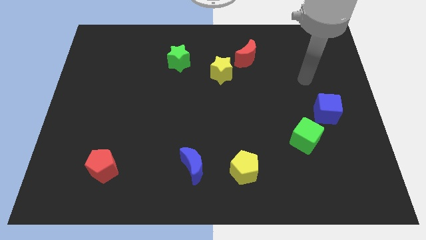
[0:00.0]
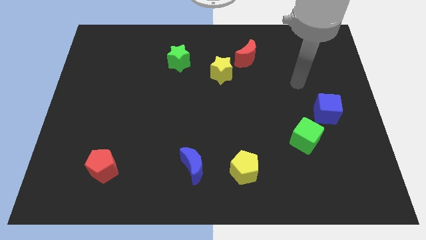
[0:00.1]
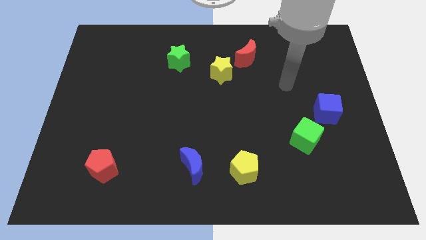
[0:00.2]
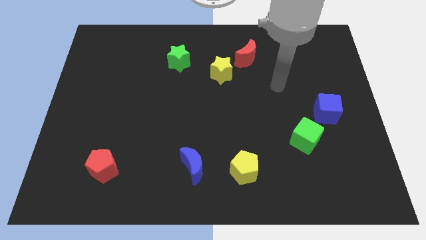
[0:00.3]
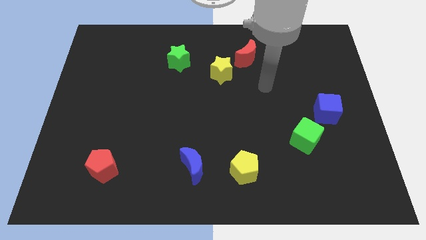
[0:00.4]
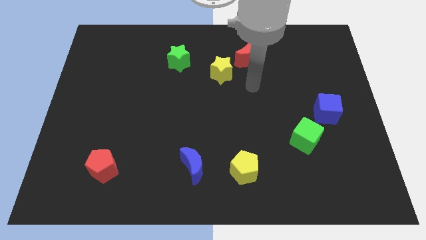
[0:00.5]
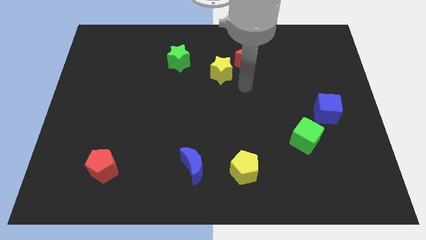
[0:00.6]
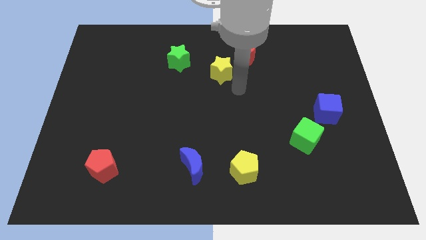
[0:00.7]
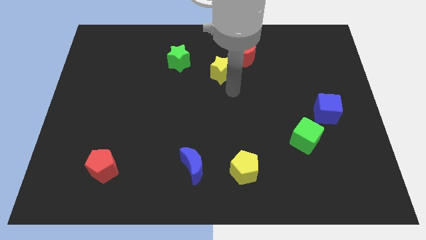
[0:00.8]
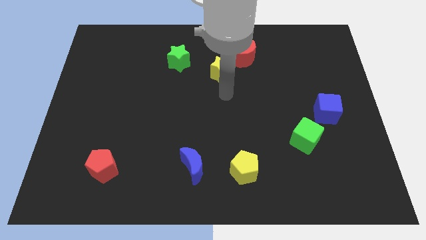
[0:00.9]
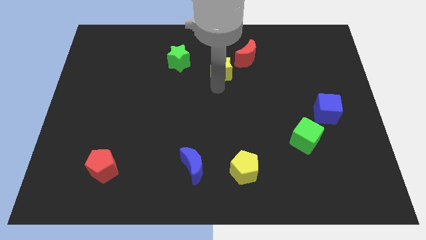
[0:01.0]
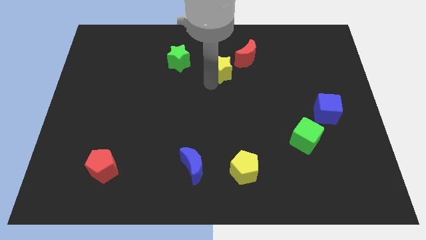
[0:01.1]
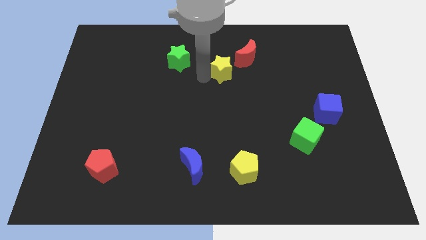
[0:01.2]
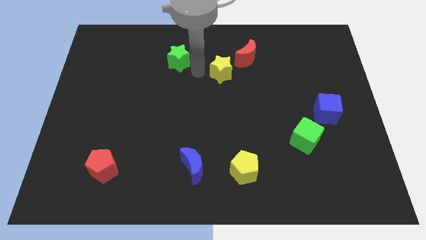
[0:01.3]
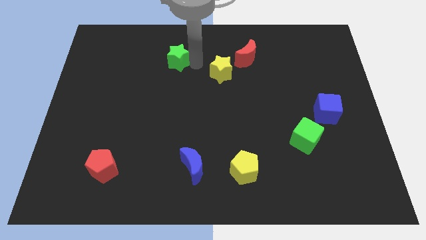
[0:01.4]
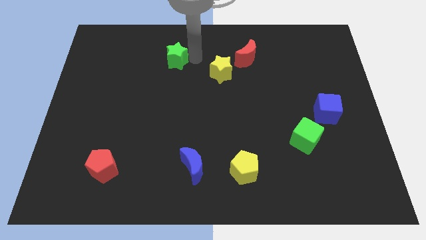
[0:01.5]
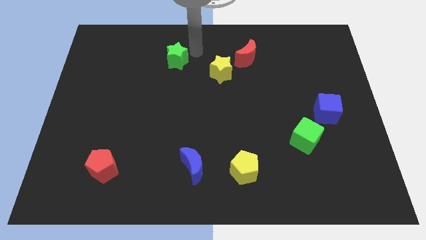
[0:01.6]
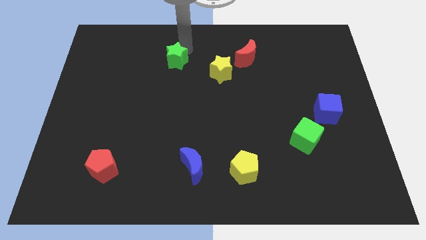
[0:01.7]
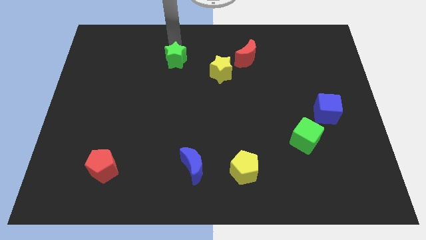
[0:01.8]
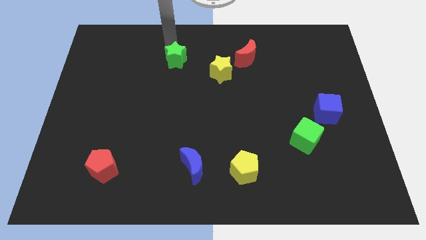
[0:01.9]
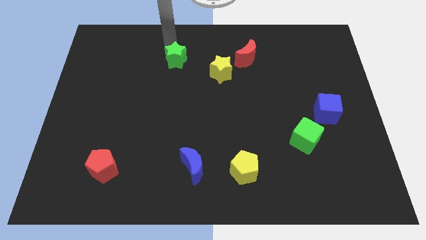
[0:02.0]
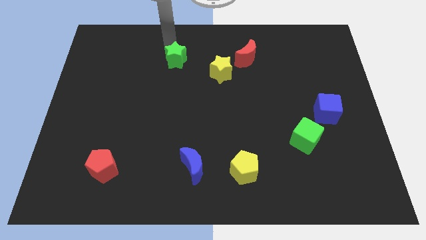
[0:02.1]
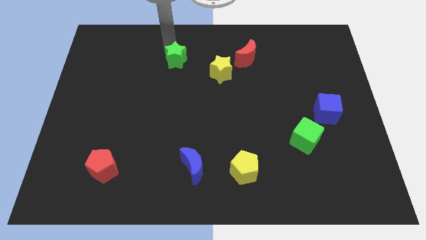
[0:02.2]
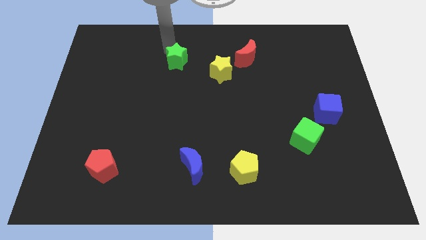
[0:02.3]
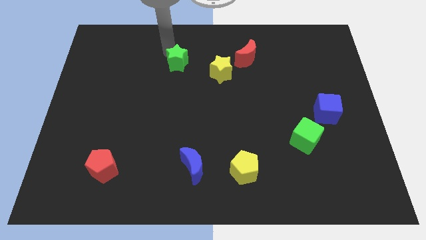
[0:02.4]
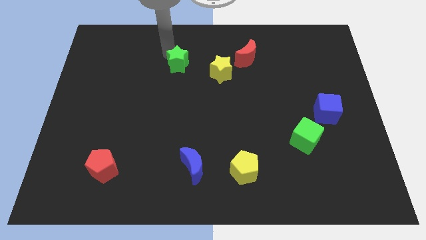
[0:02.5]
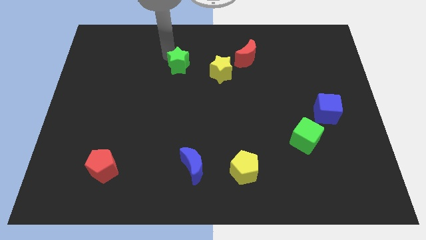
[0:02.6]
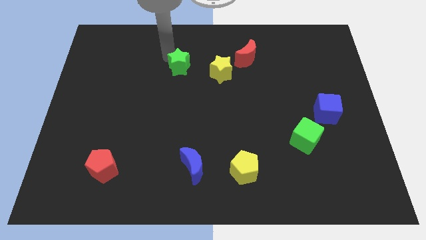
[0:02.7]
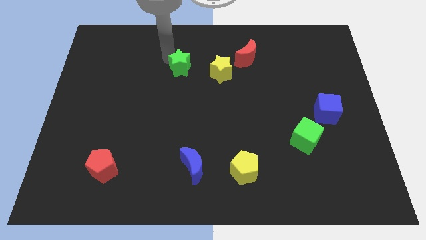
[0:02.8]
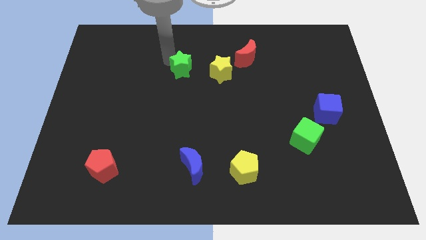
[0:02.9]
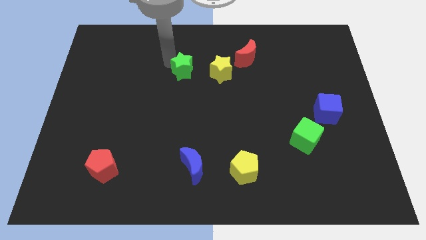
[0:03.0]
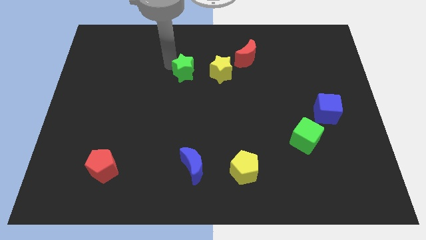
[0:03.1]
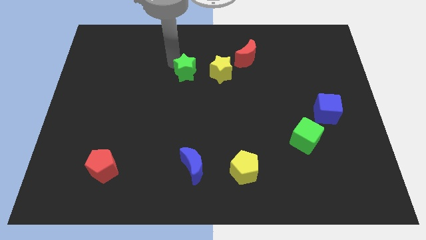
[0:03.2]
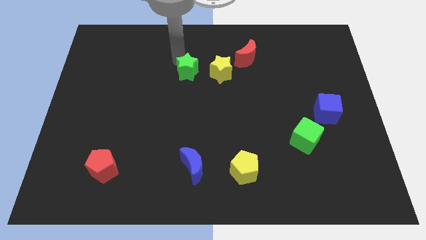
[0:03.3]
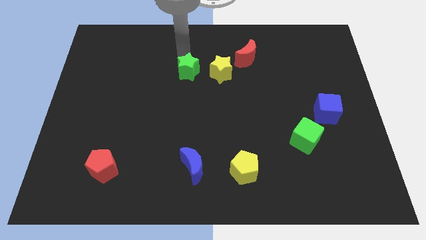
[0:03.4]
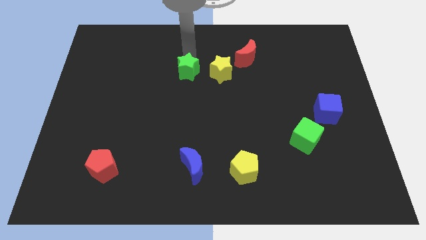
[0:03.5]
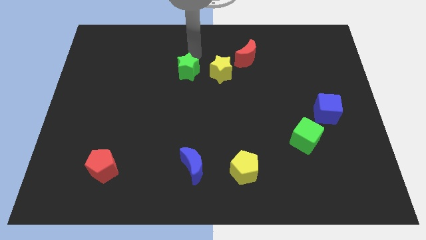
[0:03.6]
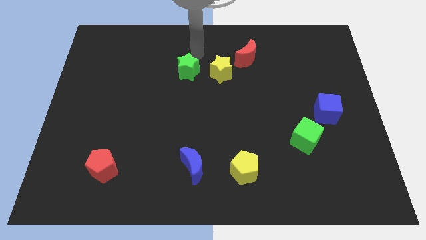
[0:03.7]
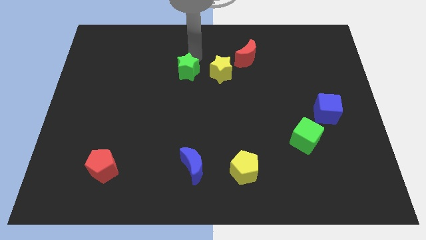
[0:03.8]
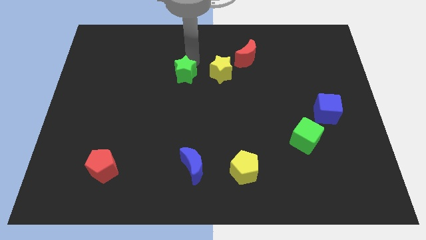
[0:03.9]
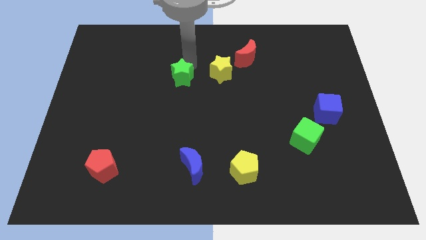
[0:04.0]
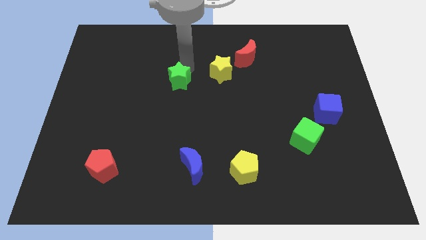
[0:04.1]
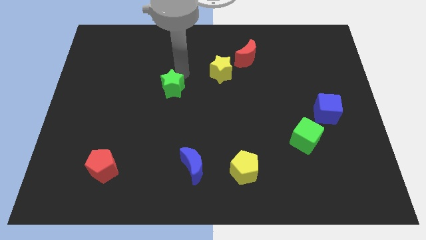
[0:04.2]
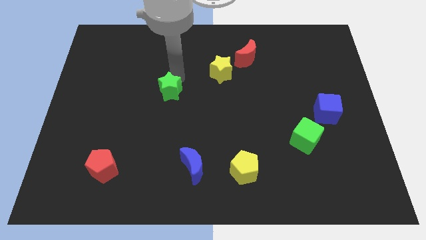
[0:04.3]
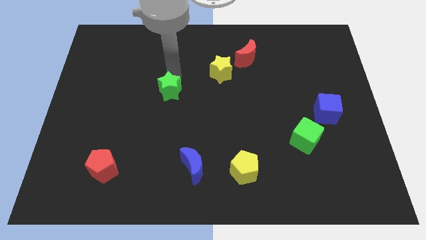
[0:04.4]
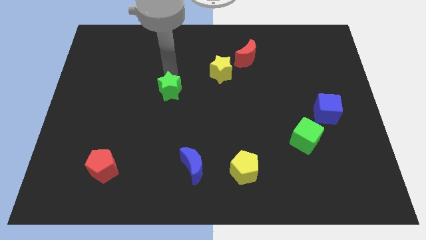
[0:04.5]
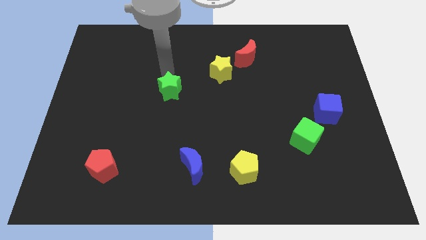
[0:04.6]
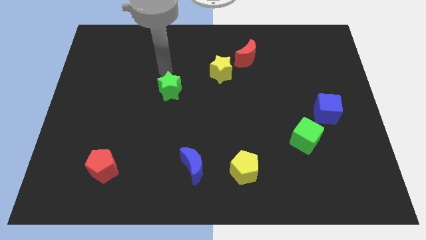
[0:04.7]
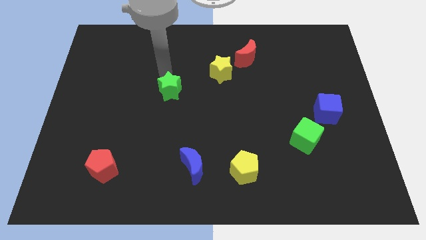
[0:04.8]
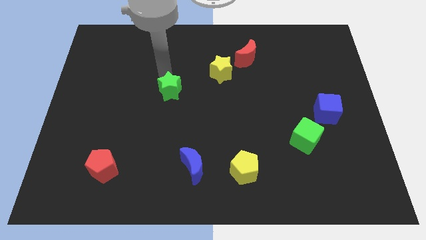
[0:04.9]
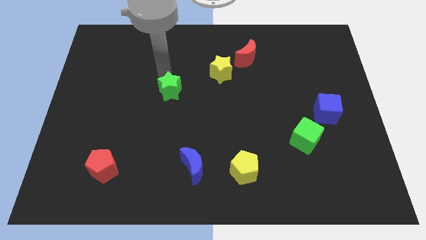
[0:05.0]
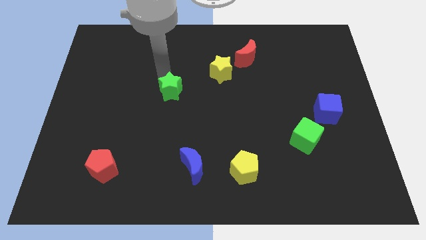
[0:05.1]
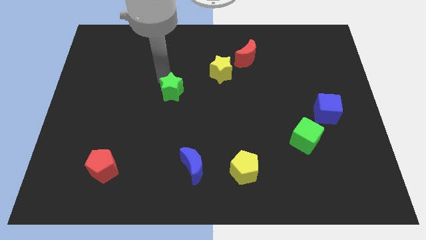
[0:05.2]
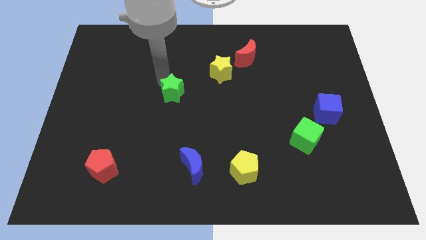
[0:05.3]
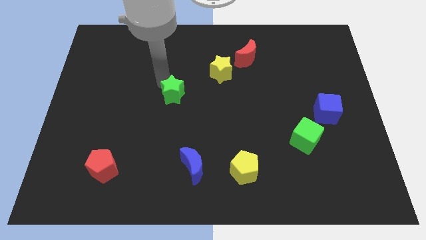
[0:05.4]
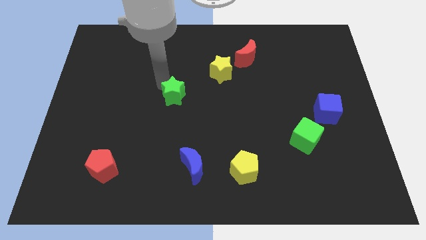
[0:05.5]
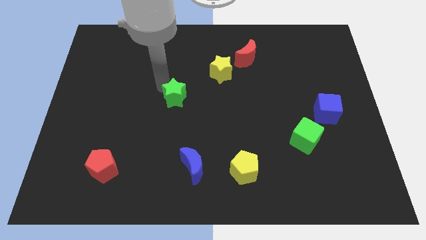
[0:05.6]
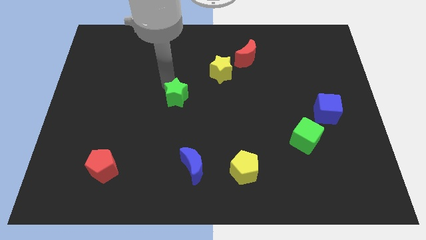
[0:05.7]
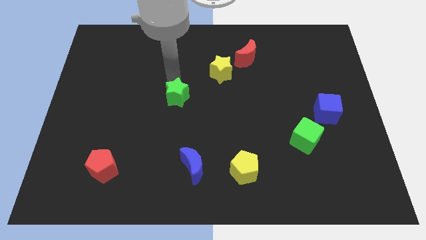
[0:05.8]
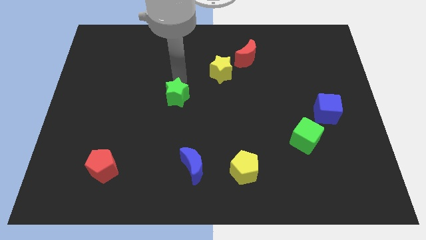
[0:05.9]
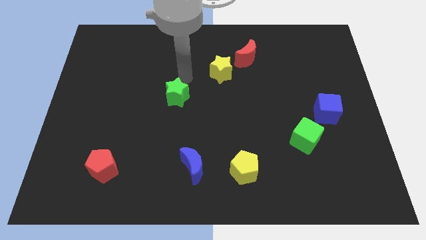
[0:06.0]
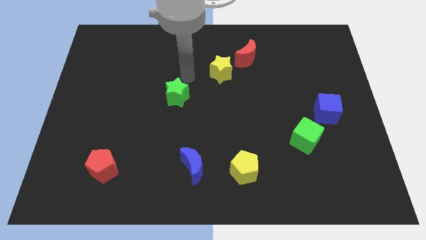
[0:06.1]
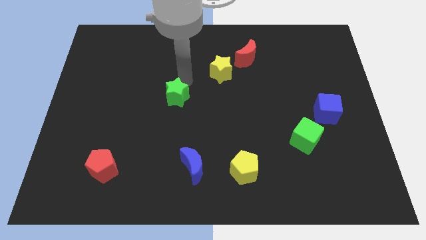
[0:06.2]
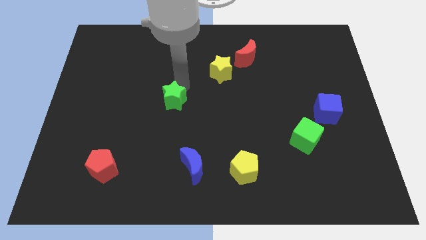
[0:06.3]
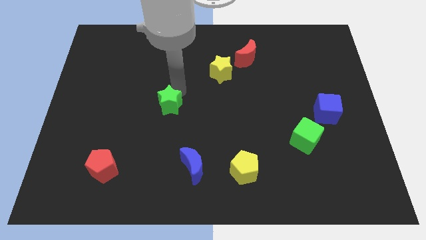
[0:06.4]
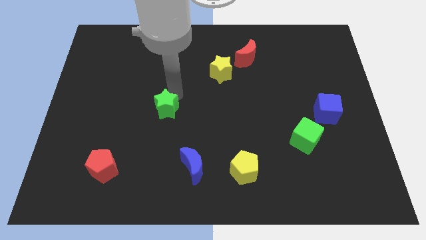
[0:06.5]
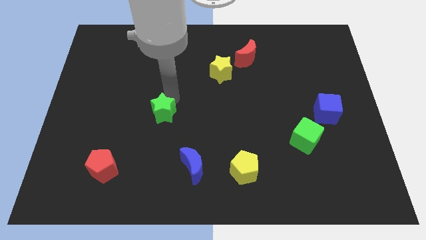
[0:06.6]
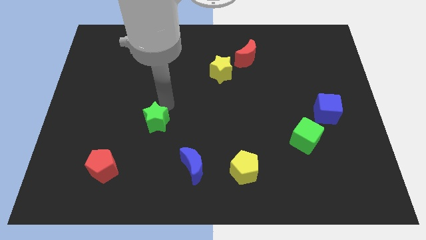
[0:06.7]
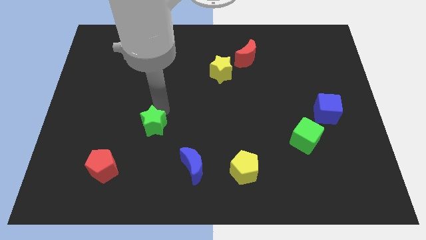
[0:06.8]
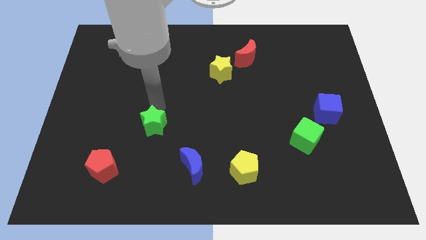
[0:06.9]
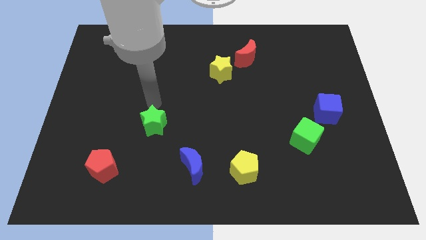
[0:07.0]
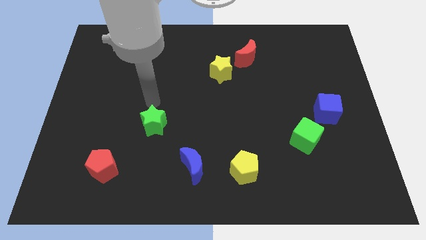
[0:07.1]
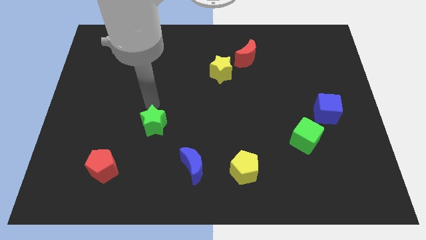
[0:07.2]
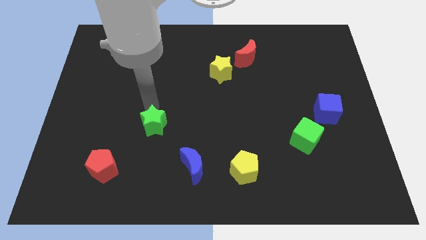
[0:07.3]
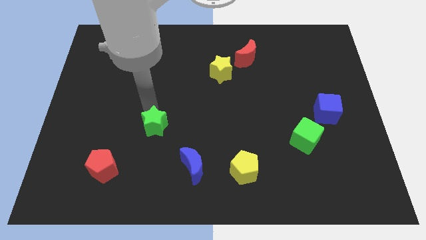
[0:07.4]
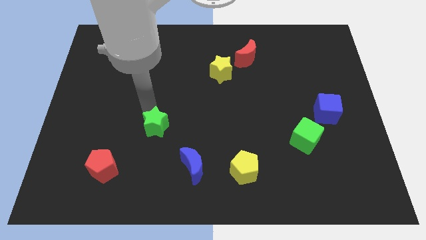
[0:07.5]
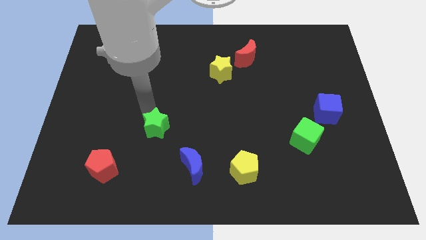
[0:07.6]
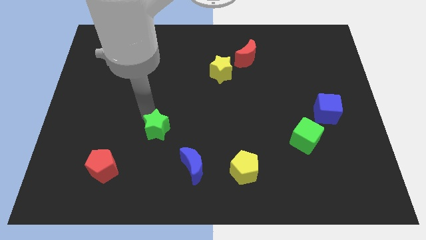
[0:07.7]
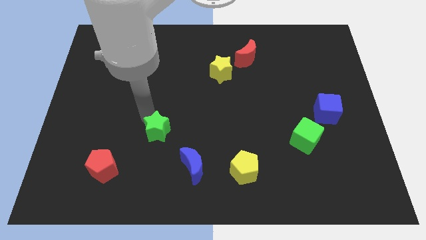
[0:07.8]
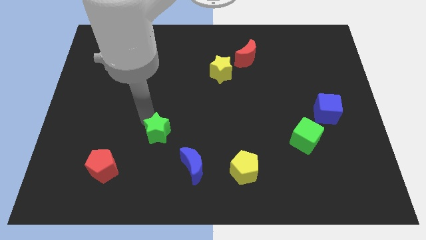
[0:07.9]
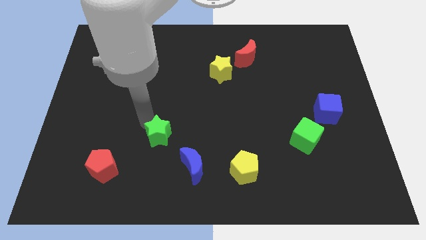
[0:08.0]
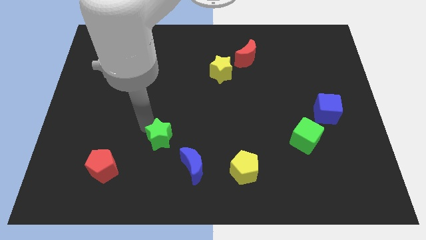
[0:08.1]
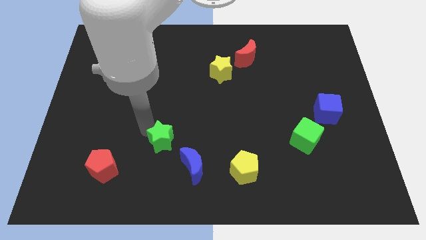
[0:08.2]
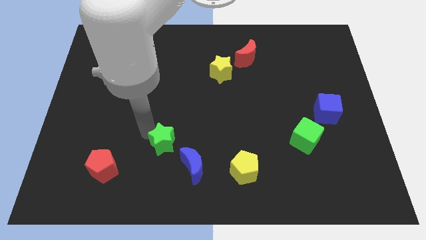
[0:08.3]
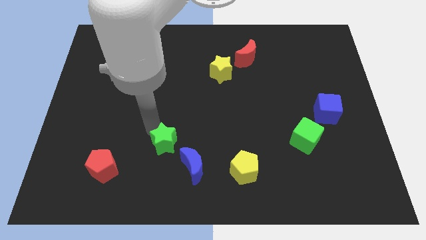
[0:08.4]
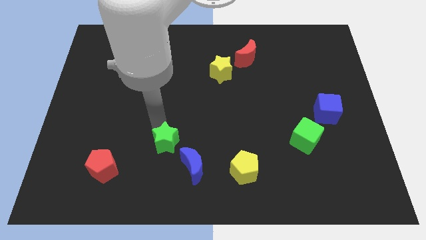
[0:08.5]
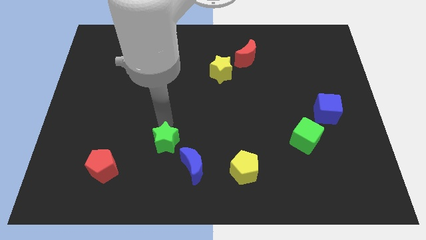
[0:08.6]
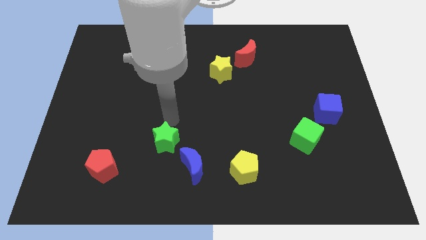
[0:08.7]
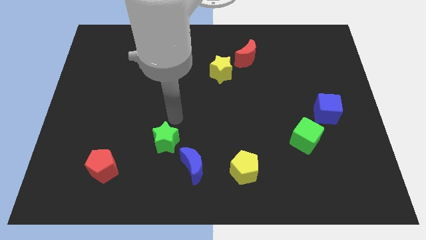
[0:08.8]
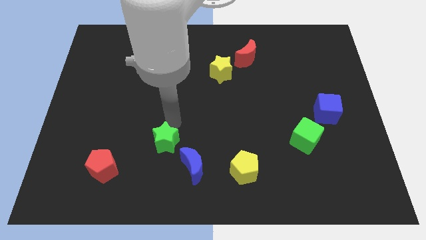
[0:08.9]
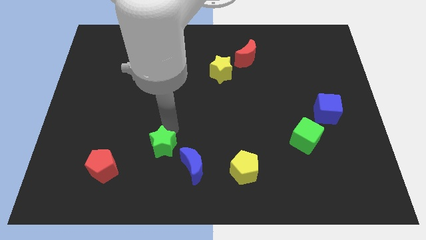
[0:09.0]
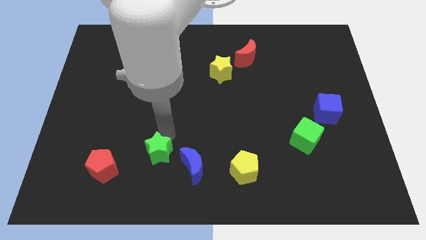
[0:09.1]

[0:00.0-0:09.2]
slide the green star to the right of the red pentagon
